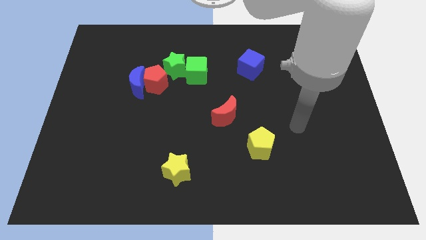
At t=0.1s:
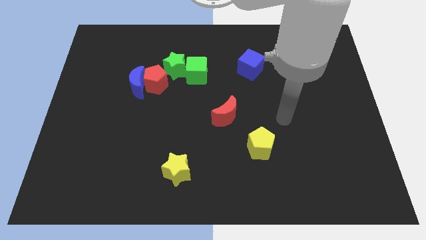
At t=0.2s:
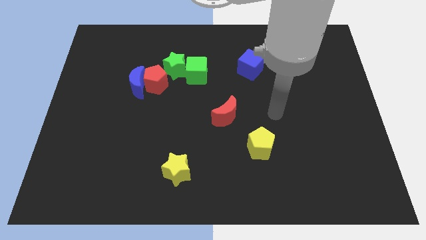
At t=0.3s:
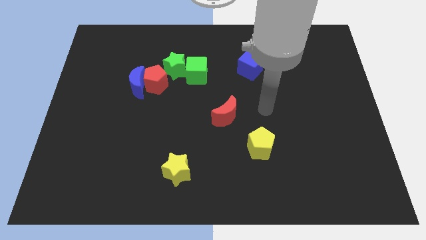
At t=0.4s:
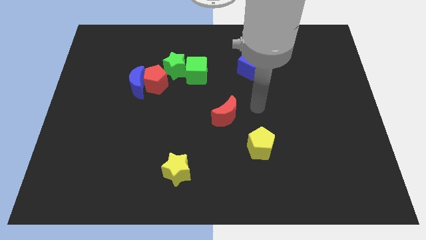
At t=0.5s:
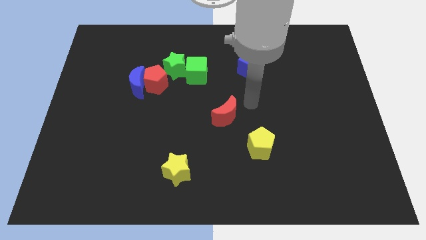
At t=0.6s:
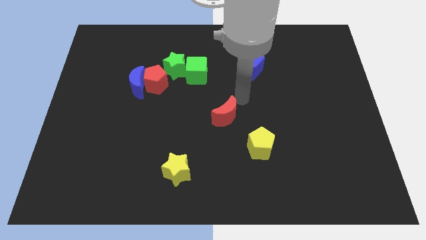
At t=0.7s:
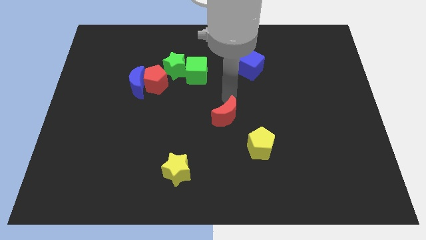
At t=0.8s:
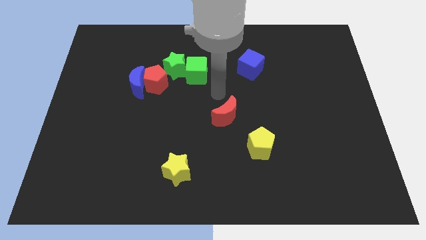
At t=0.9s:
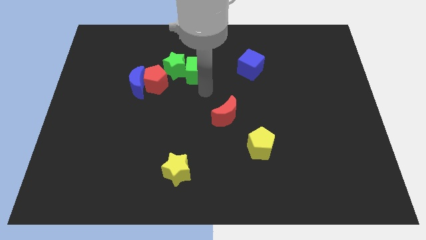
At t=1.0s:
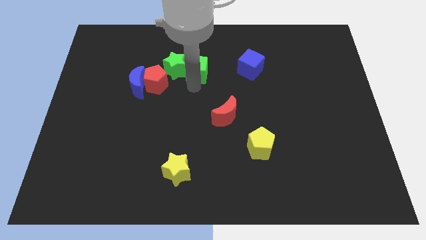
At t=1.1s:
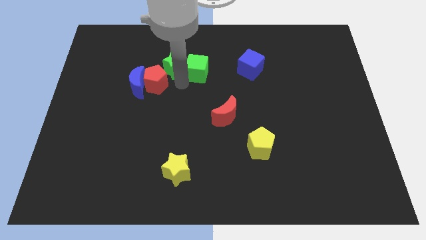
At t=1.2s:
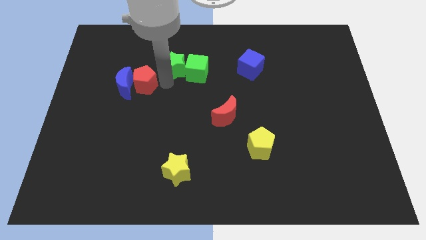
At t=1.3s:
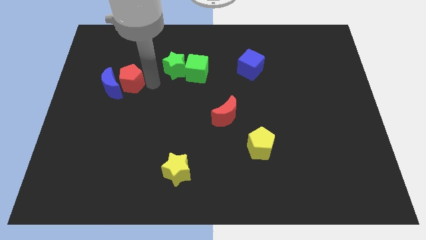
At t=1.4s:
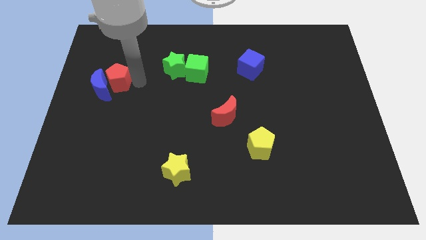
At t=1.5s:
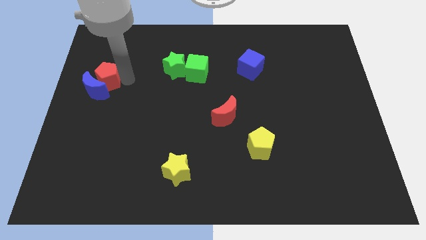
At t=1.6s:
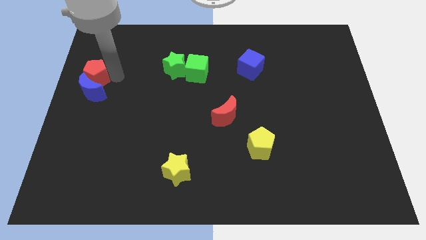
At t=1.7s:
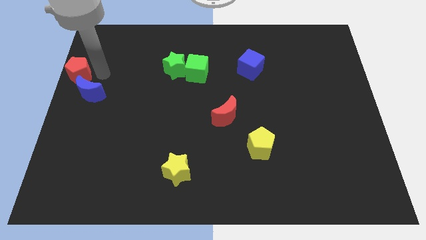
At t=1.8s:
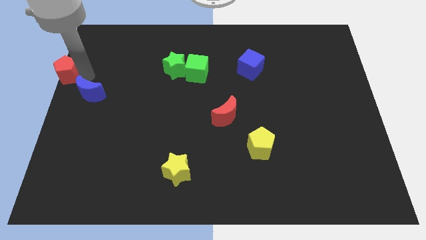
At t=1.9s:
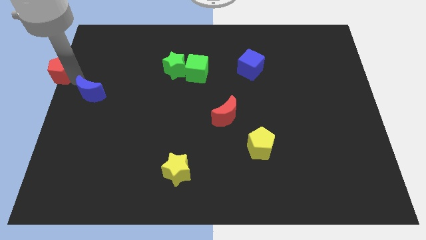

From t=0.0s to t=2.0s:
move the blue moon away from the red pentagon

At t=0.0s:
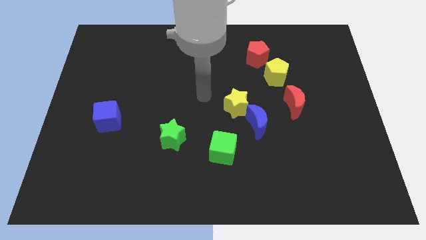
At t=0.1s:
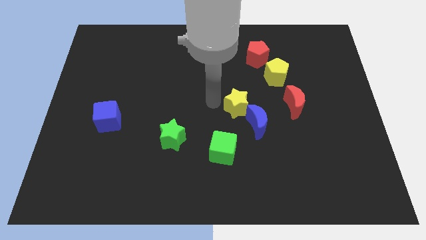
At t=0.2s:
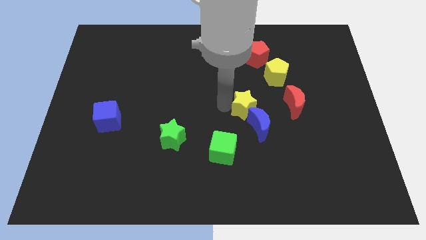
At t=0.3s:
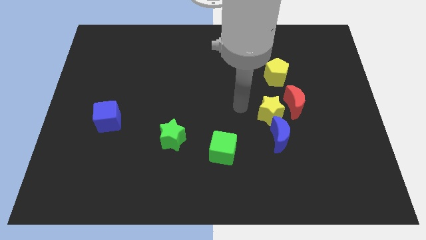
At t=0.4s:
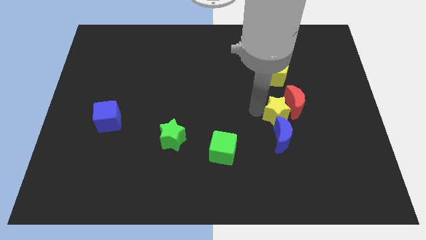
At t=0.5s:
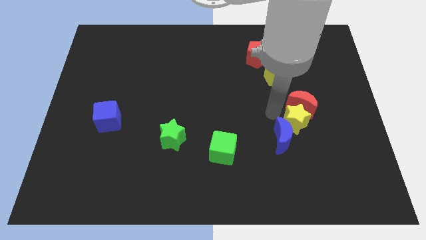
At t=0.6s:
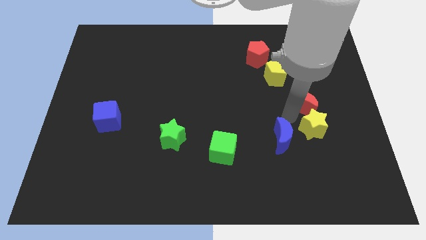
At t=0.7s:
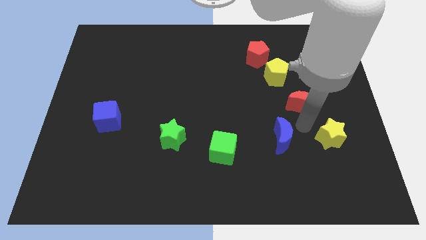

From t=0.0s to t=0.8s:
separate the blue moon from the yellow star

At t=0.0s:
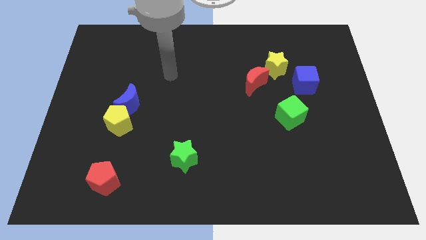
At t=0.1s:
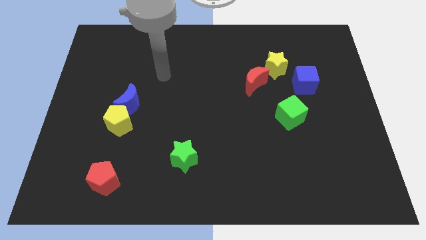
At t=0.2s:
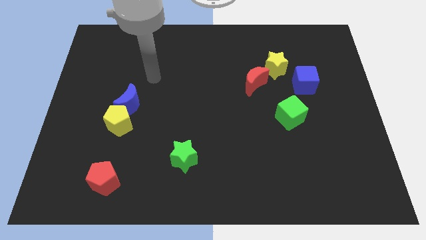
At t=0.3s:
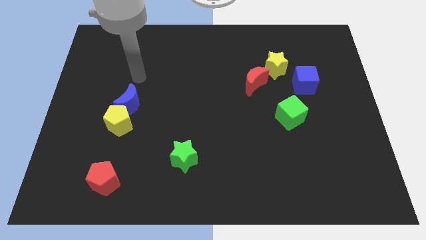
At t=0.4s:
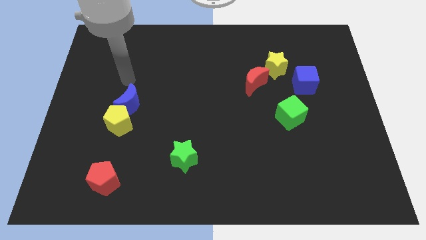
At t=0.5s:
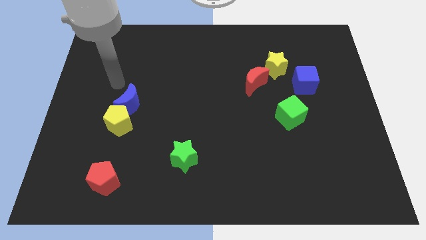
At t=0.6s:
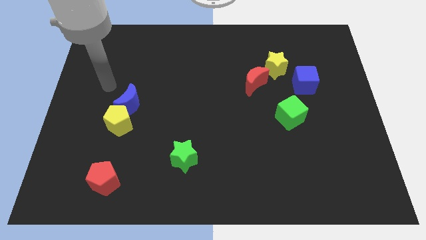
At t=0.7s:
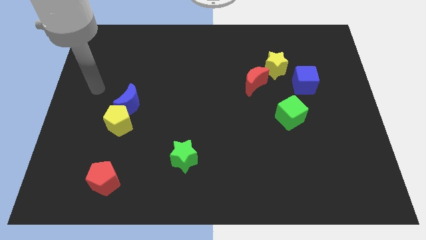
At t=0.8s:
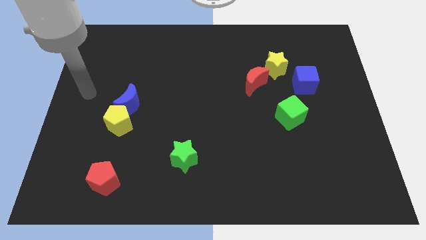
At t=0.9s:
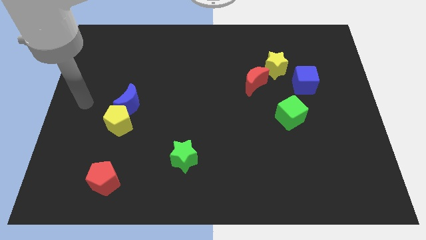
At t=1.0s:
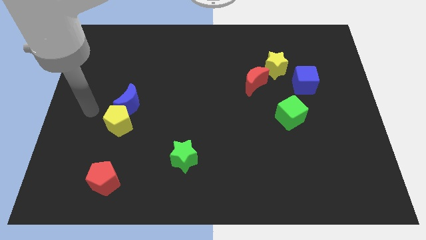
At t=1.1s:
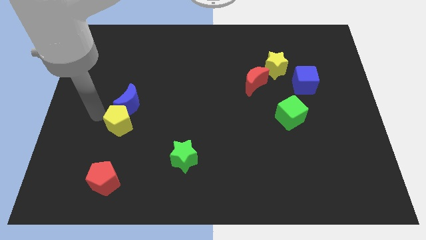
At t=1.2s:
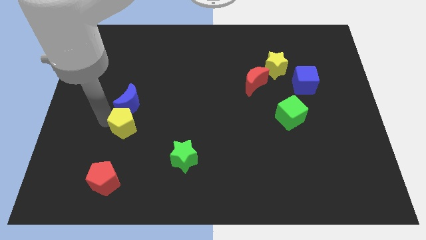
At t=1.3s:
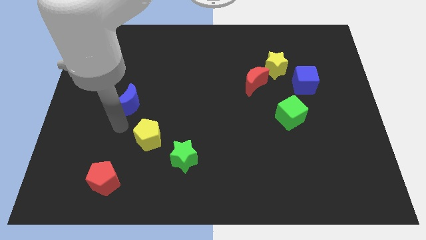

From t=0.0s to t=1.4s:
pull the blue moon apart from the yellow pentagon

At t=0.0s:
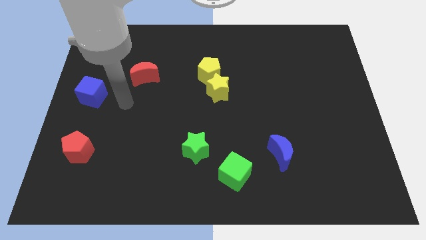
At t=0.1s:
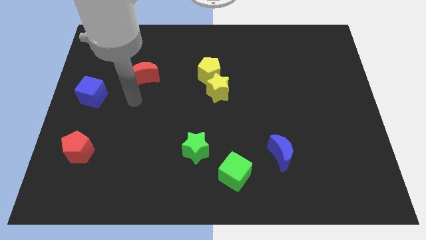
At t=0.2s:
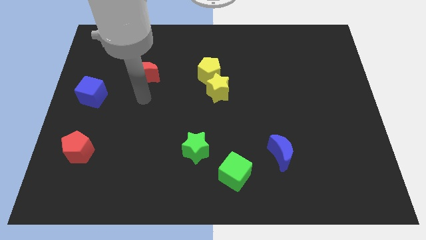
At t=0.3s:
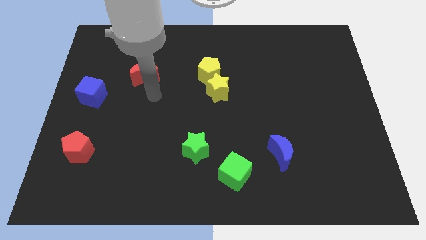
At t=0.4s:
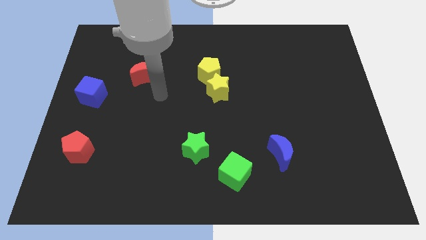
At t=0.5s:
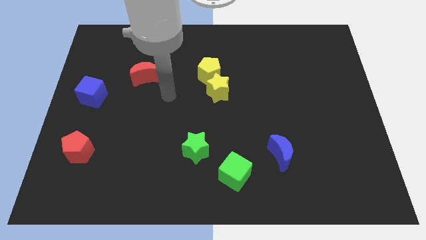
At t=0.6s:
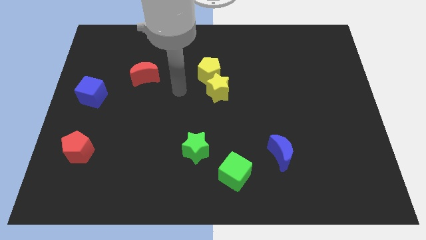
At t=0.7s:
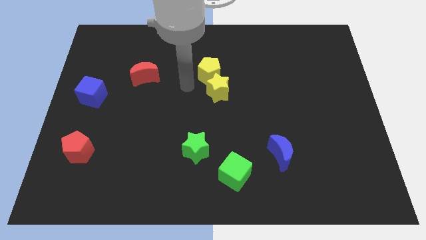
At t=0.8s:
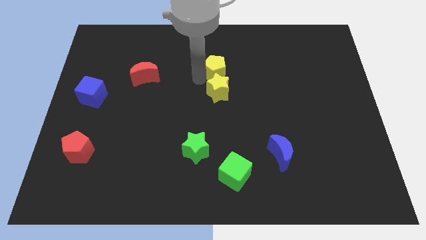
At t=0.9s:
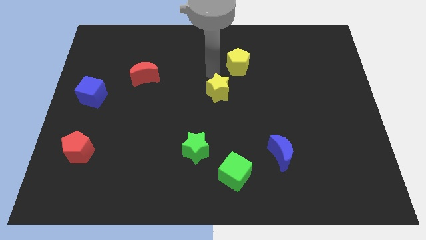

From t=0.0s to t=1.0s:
pull the yellow star apart from the yellow pentagon

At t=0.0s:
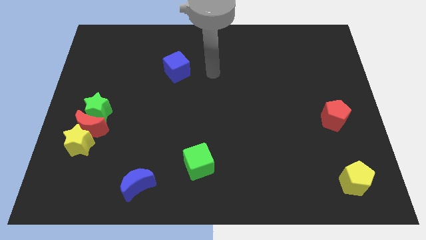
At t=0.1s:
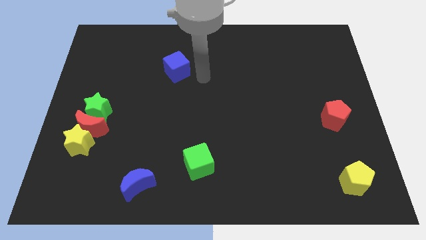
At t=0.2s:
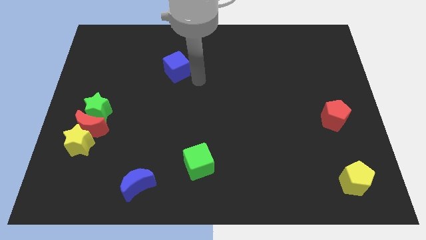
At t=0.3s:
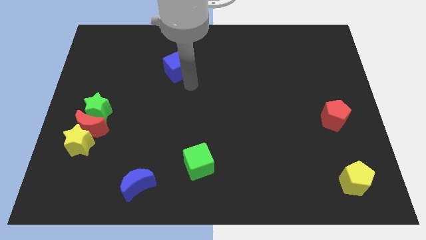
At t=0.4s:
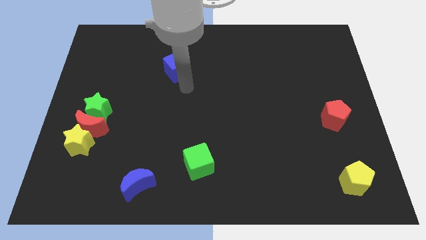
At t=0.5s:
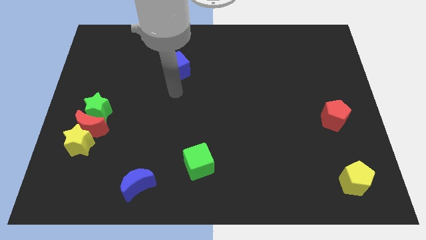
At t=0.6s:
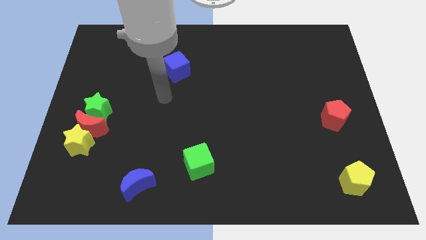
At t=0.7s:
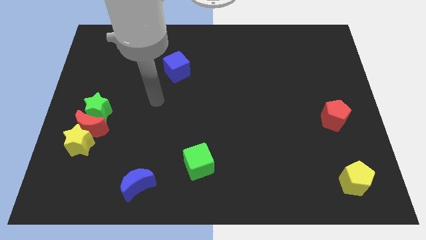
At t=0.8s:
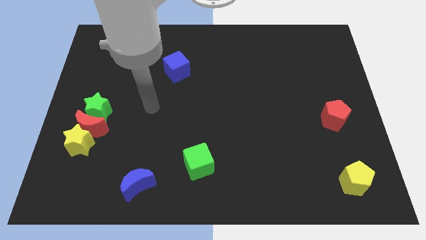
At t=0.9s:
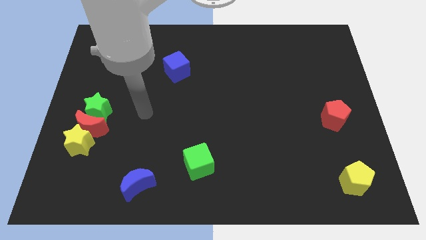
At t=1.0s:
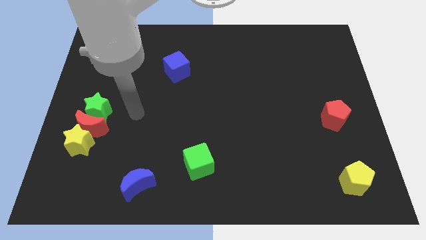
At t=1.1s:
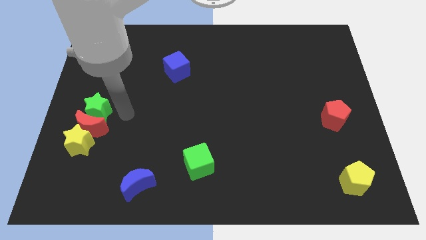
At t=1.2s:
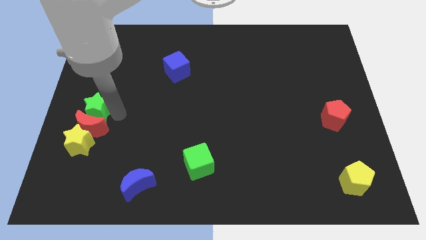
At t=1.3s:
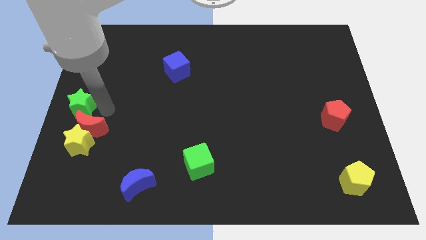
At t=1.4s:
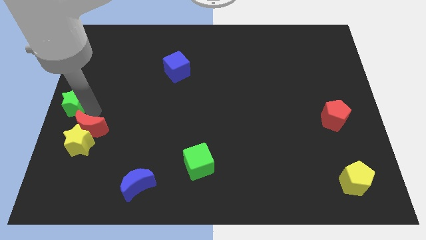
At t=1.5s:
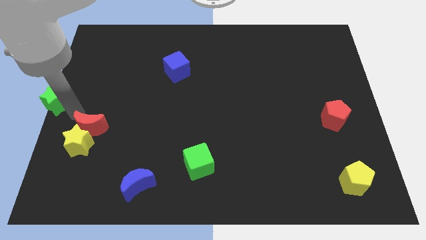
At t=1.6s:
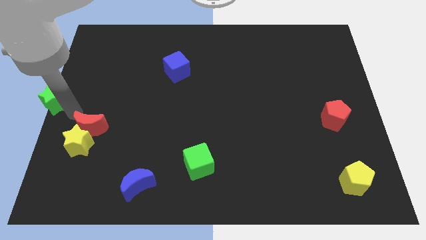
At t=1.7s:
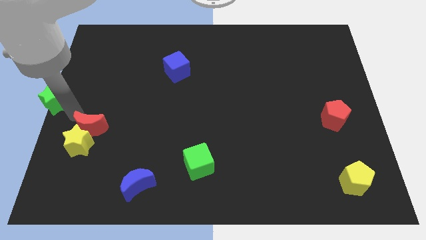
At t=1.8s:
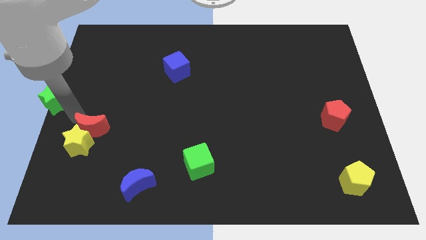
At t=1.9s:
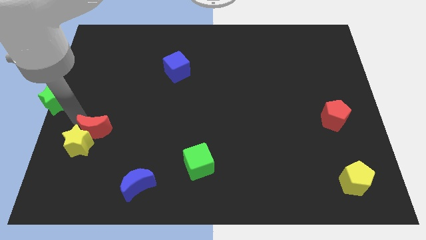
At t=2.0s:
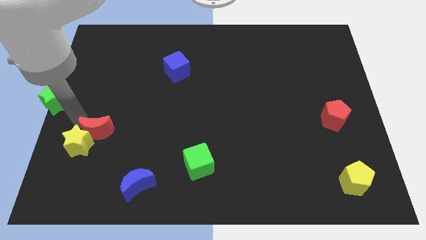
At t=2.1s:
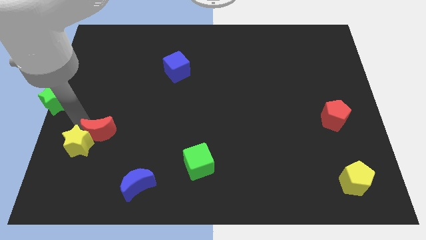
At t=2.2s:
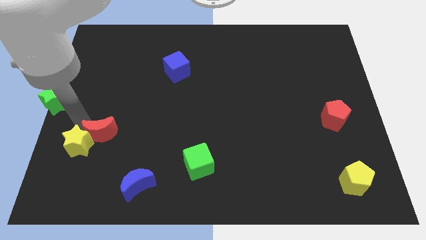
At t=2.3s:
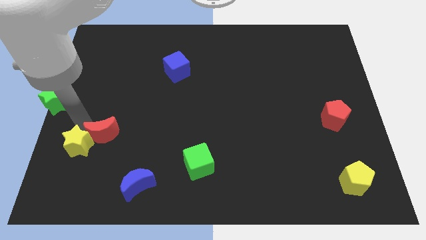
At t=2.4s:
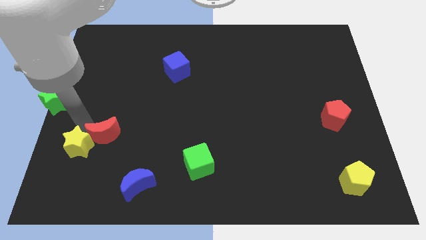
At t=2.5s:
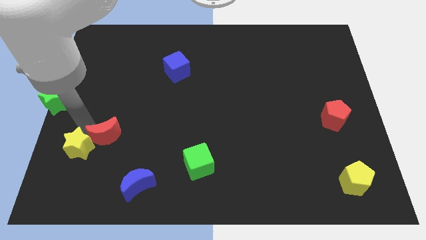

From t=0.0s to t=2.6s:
separate the red moon from the yellow star and green star

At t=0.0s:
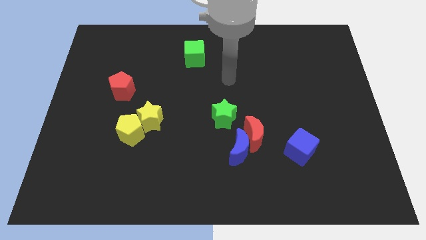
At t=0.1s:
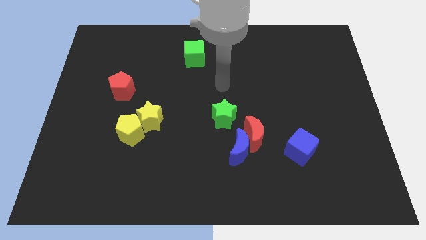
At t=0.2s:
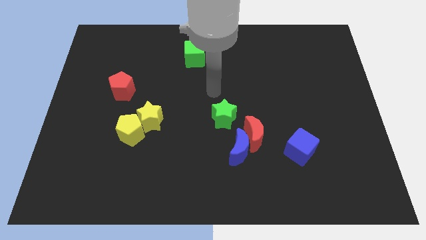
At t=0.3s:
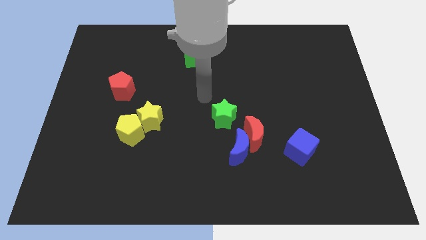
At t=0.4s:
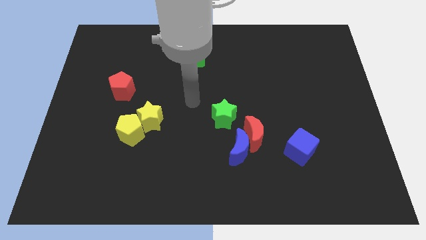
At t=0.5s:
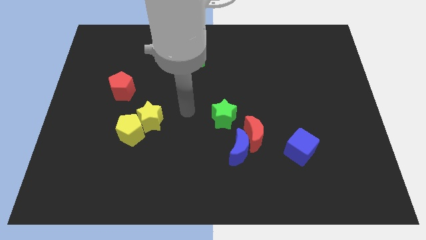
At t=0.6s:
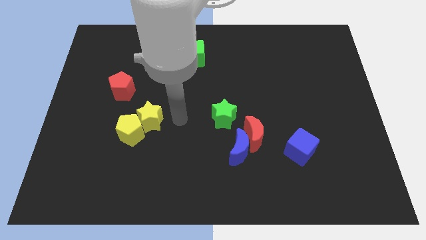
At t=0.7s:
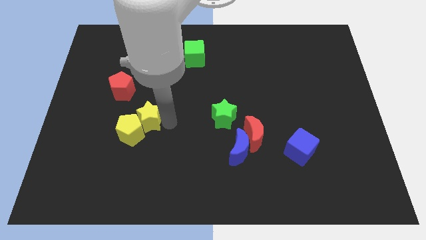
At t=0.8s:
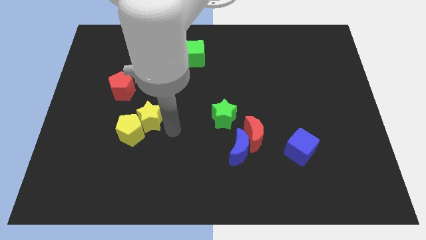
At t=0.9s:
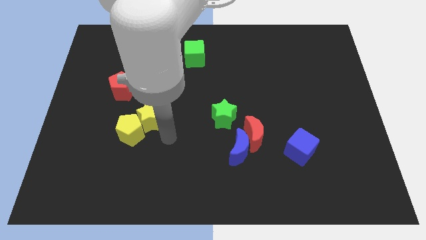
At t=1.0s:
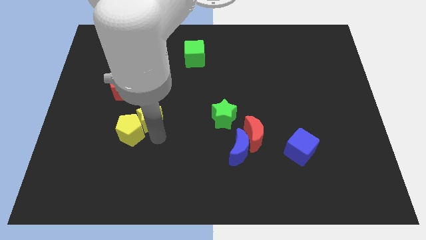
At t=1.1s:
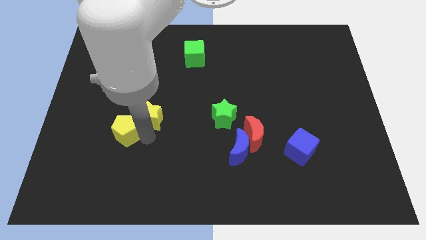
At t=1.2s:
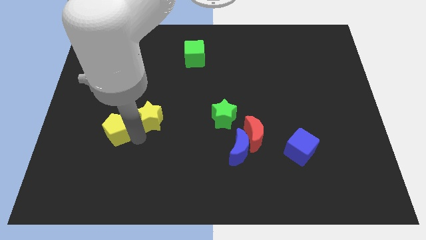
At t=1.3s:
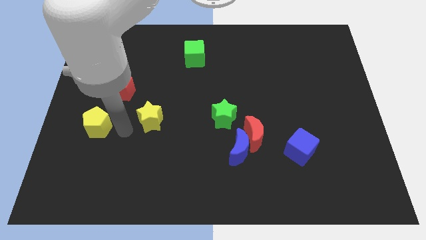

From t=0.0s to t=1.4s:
separate the yellow star from the yellow pentagon
